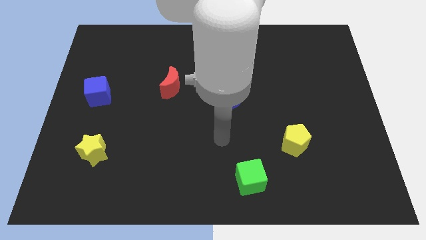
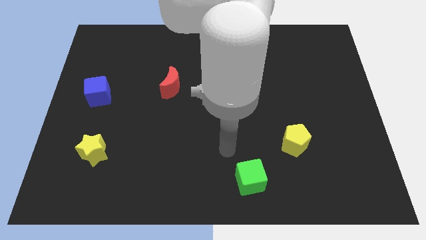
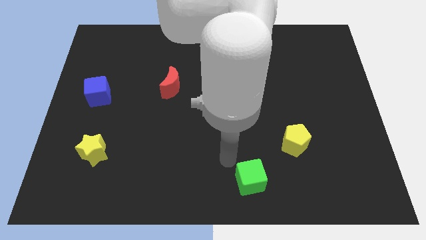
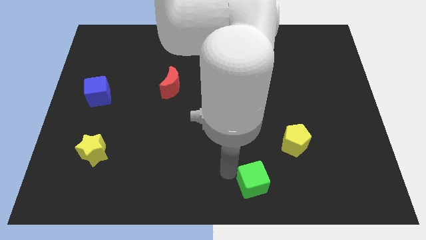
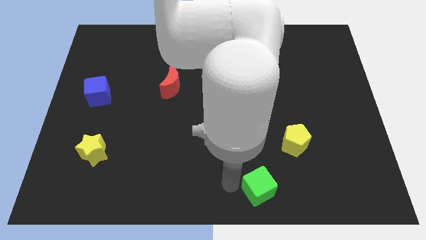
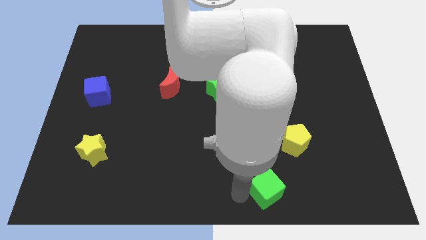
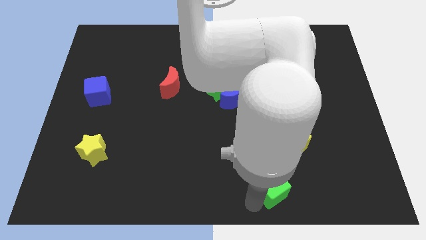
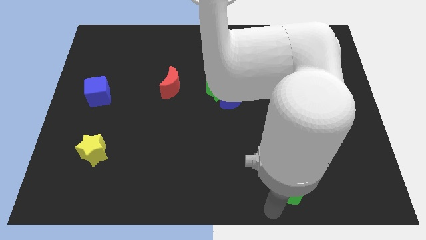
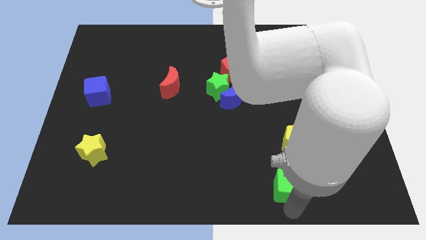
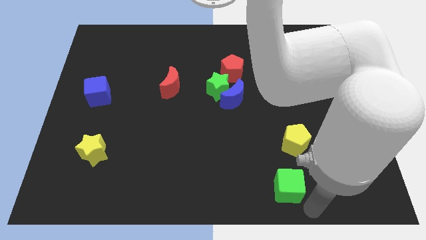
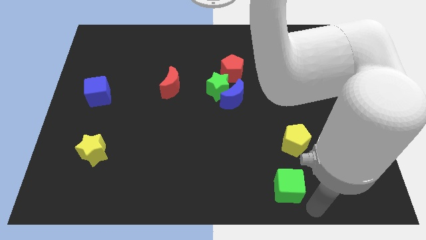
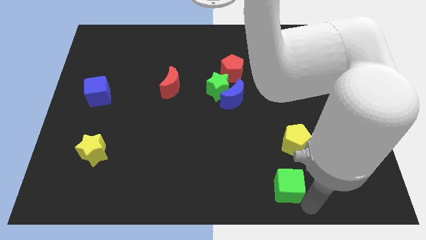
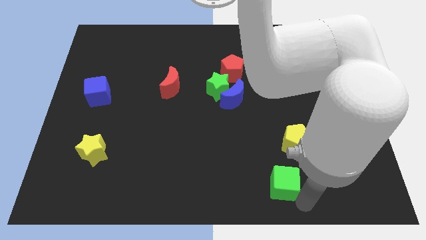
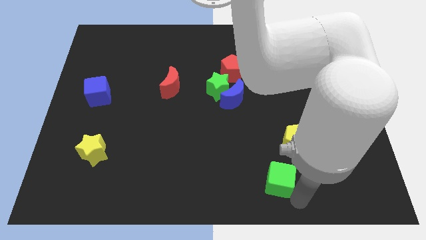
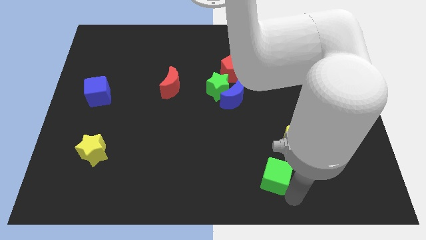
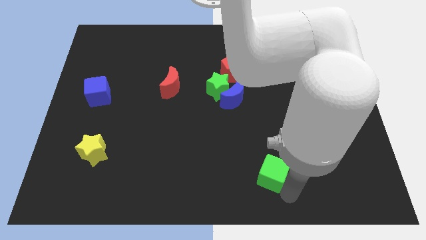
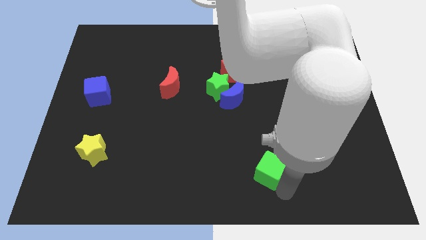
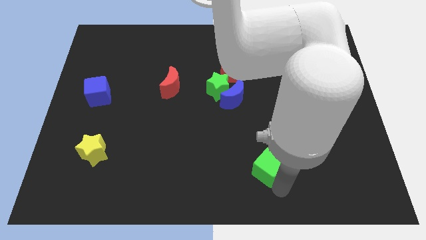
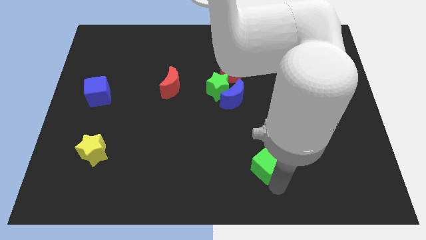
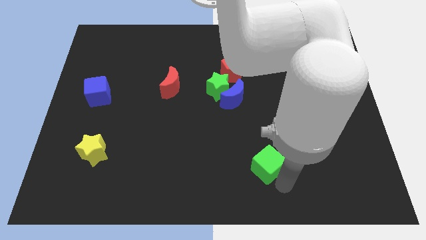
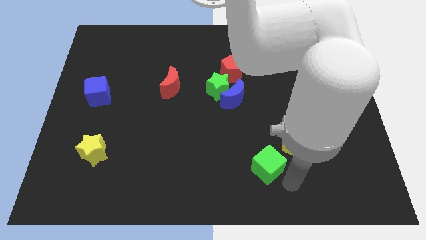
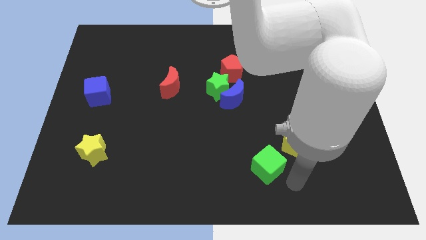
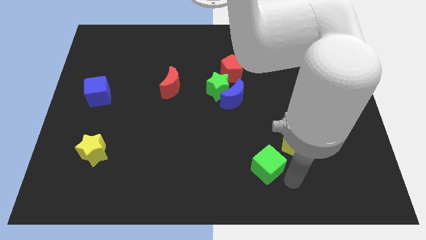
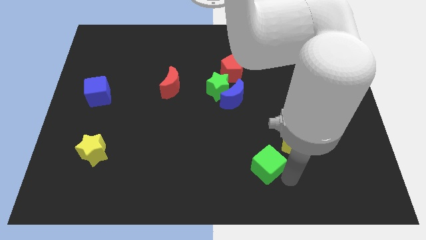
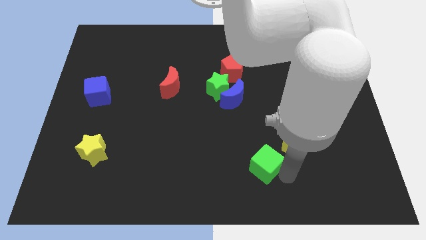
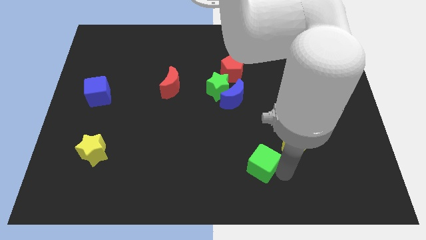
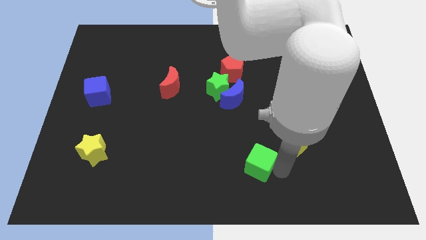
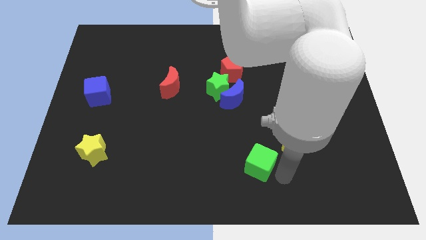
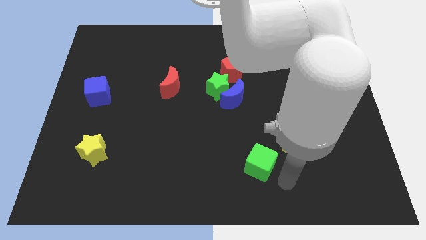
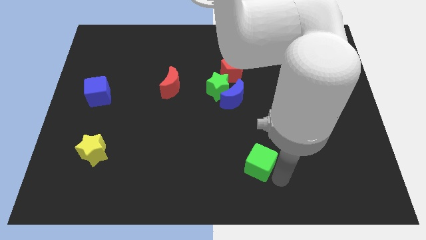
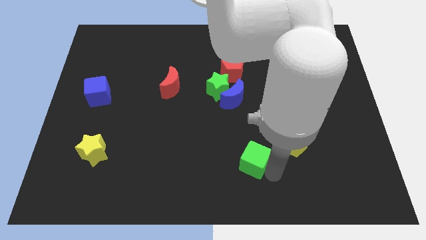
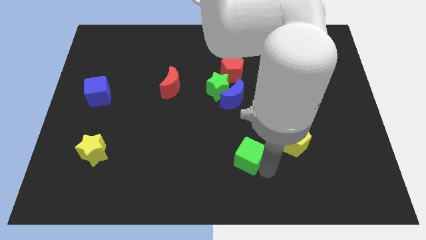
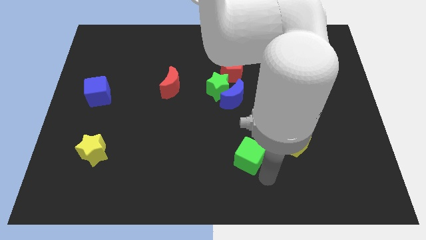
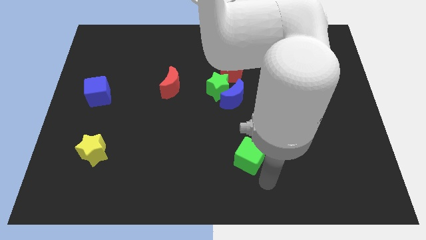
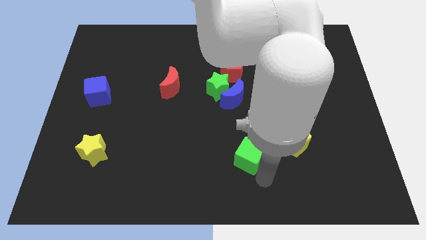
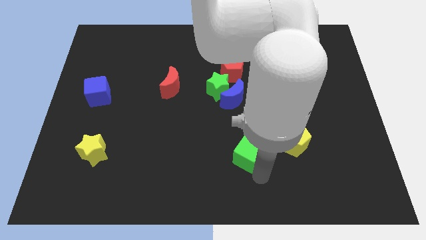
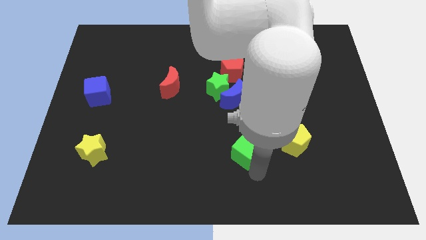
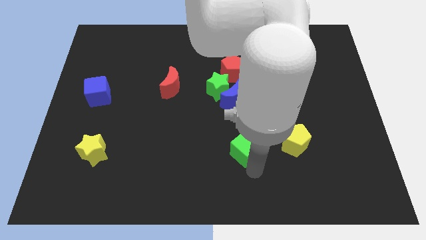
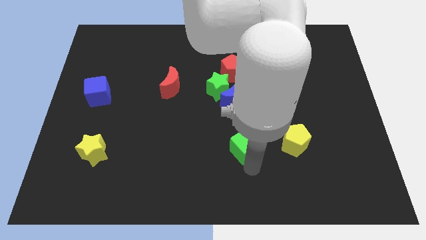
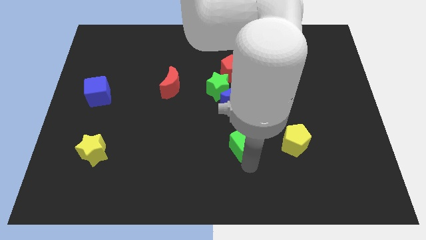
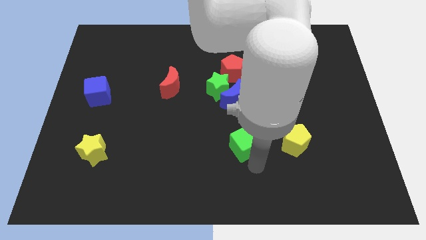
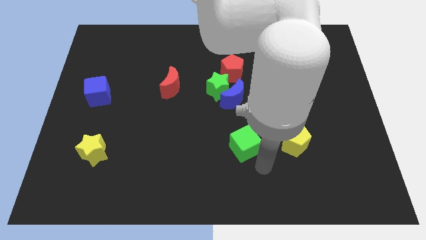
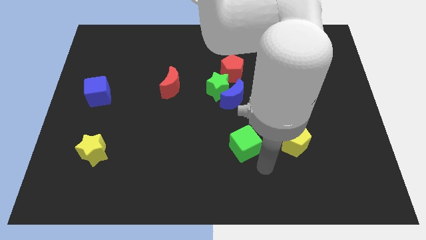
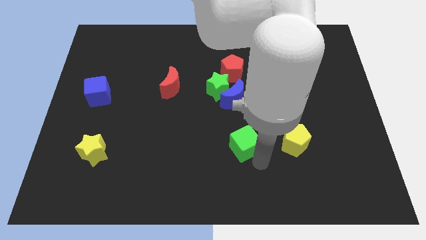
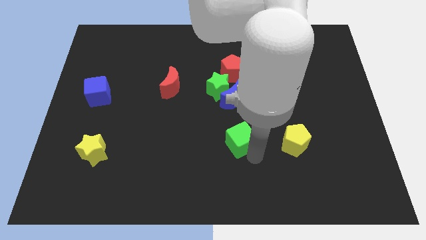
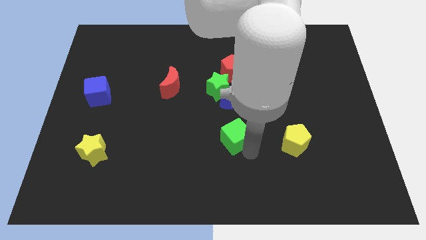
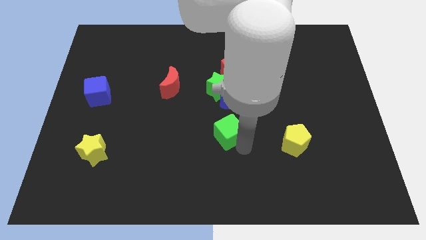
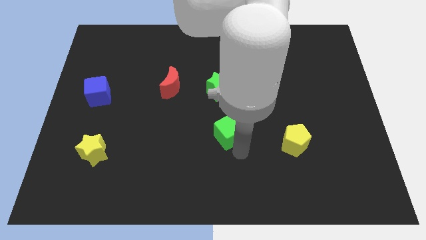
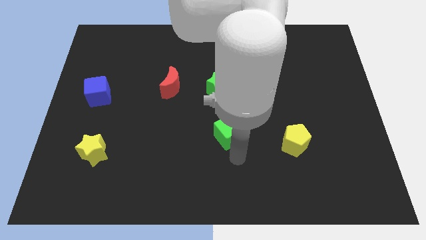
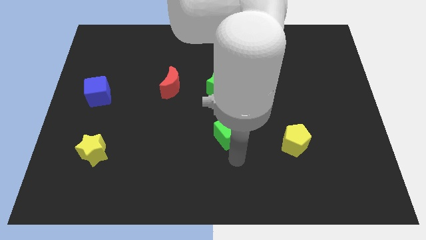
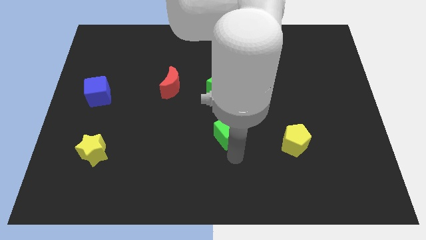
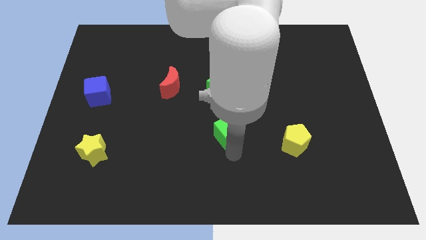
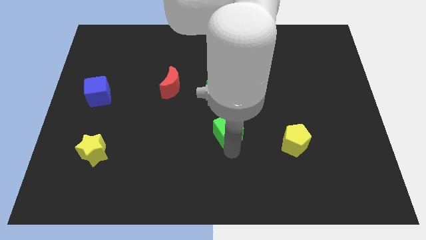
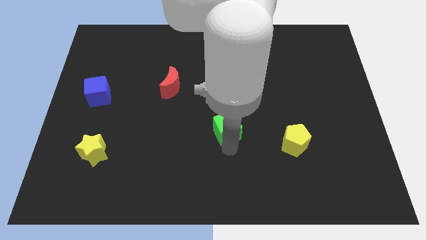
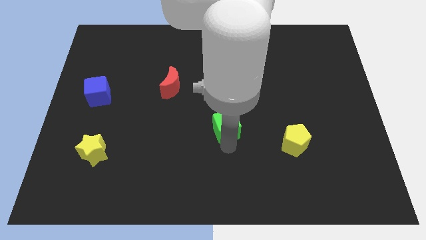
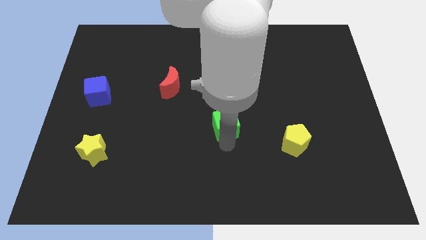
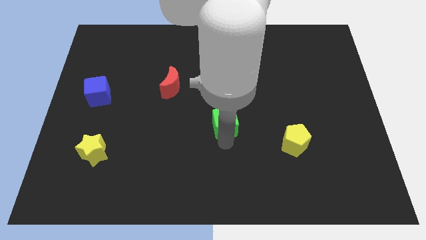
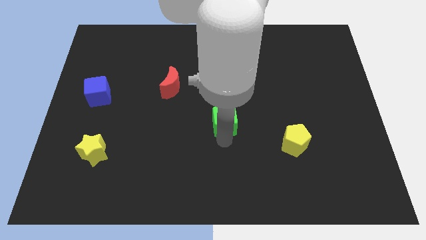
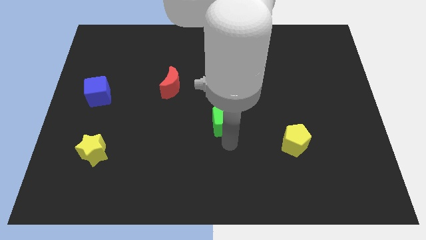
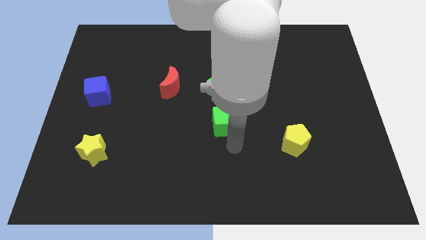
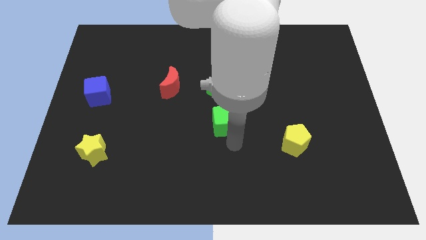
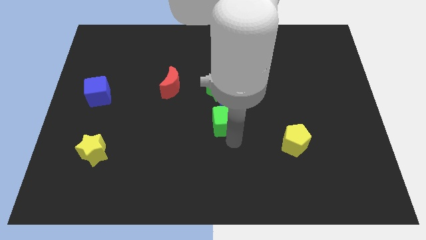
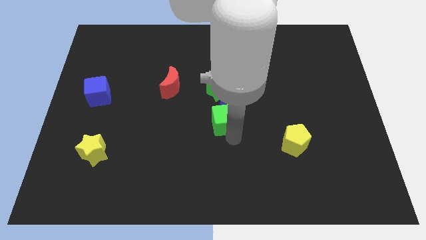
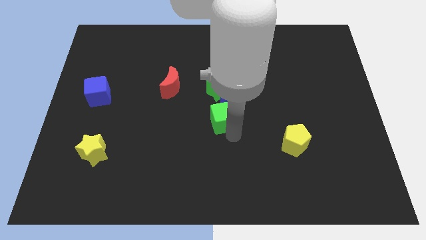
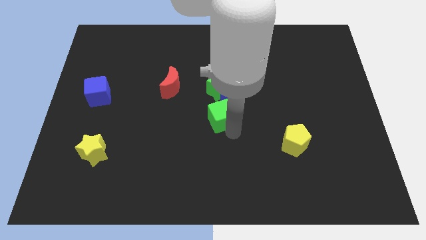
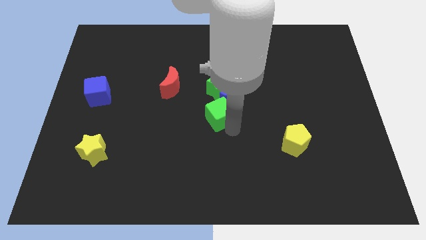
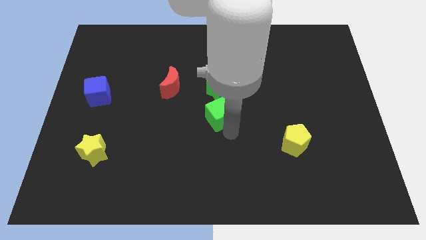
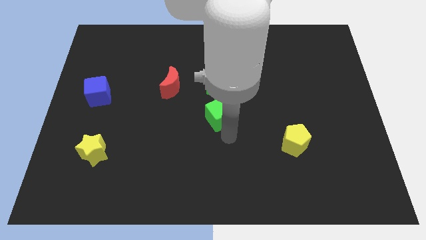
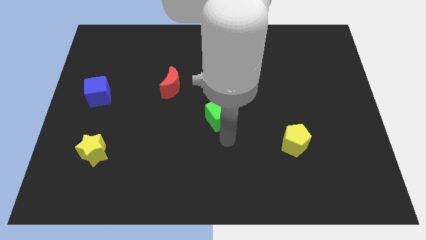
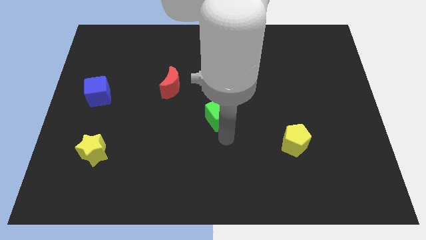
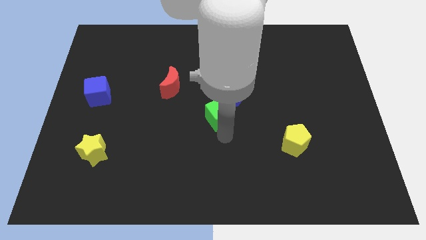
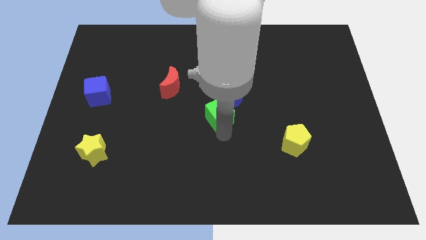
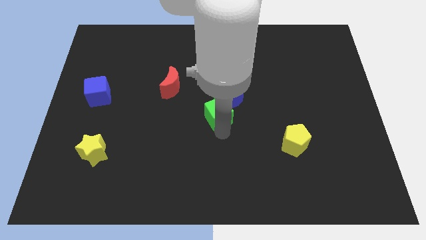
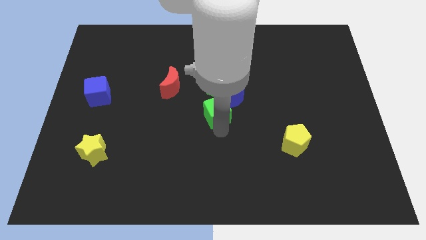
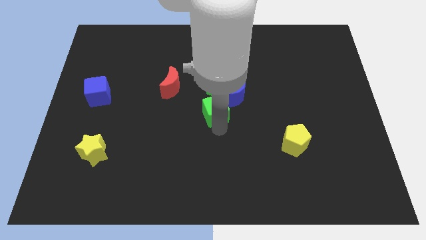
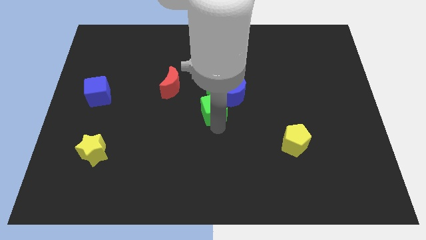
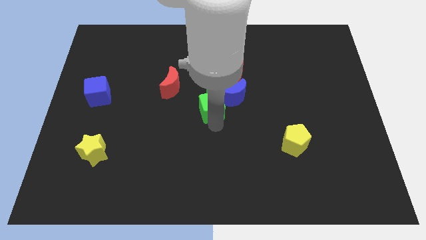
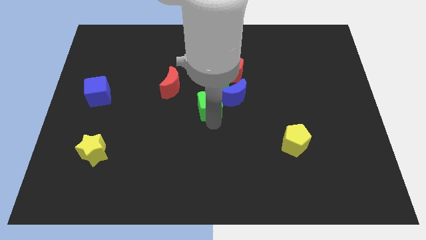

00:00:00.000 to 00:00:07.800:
slide the green cube towards the green star
